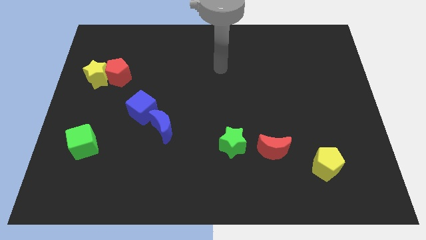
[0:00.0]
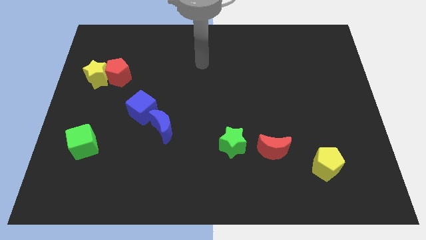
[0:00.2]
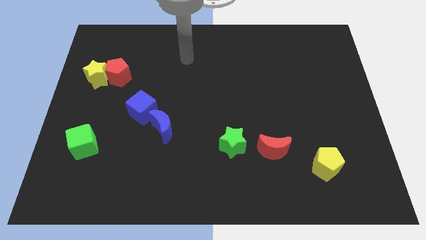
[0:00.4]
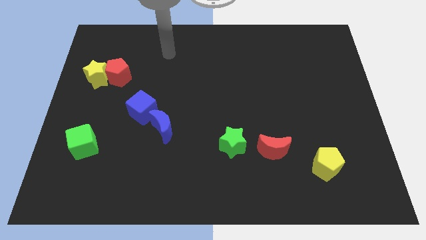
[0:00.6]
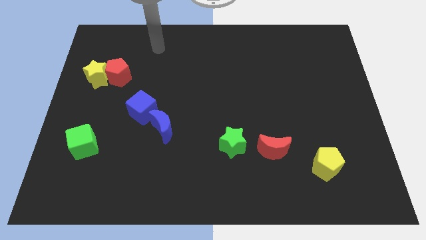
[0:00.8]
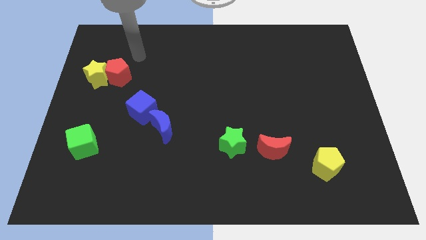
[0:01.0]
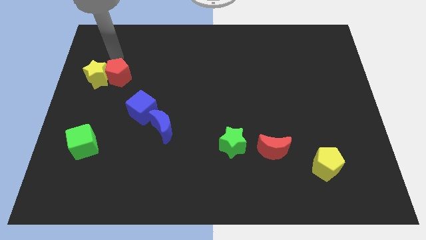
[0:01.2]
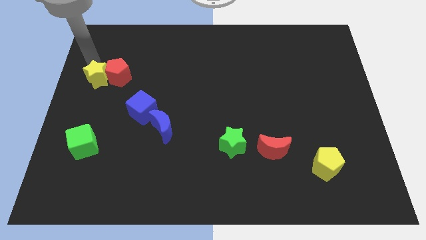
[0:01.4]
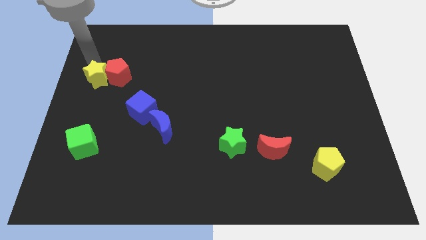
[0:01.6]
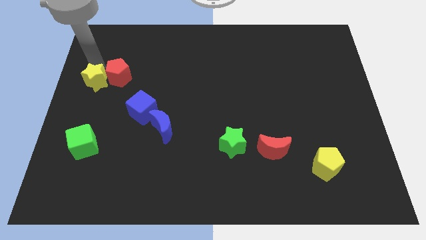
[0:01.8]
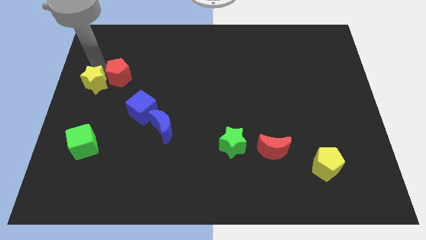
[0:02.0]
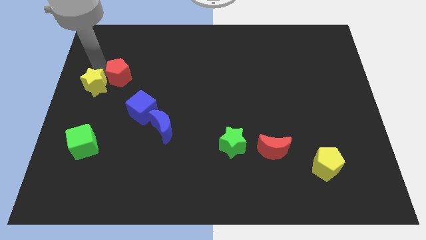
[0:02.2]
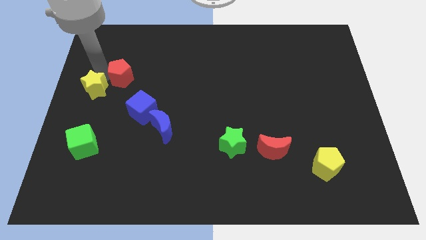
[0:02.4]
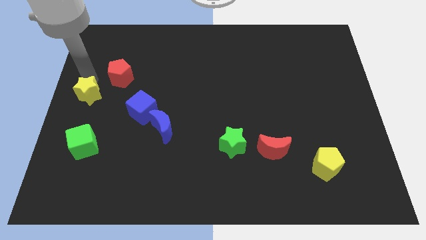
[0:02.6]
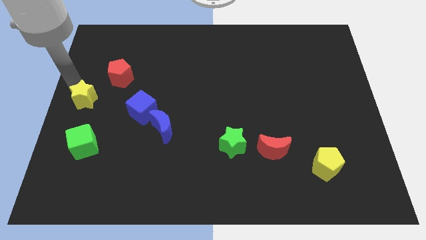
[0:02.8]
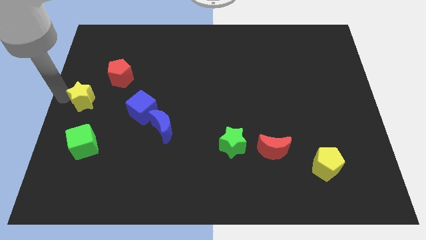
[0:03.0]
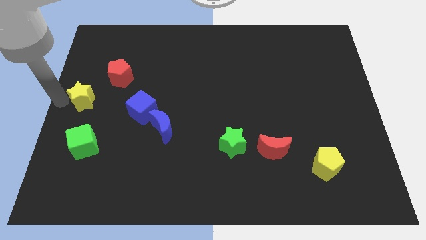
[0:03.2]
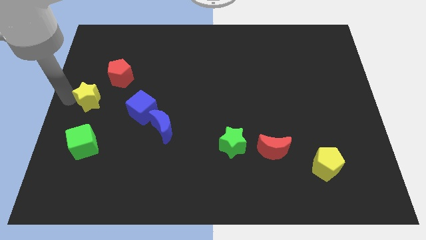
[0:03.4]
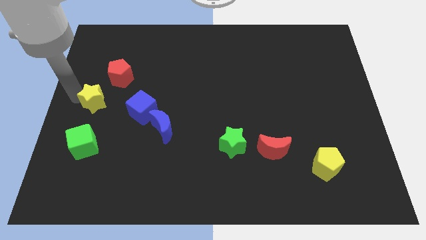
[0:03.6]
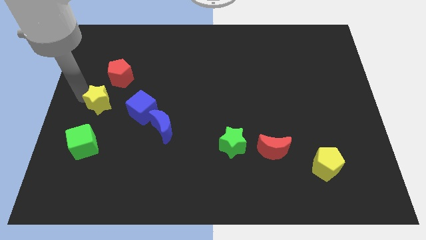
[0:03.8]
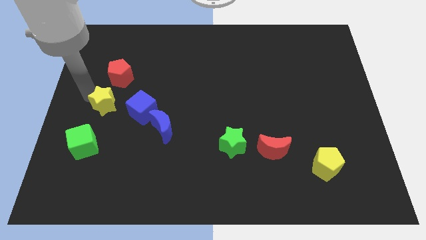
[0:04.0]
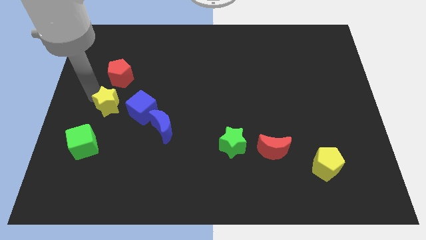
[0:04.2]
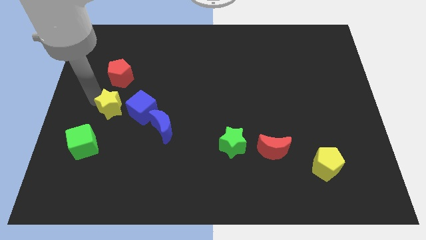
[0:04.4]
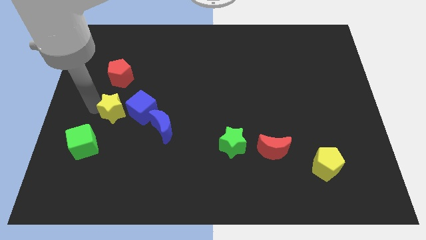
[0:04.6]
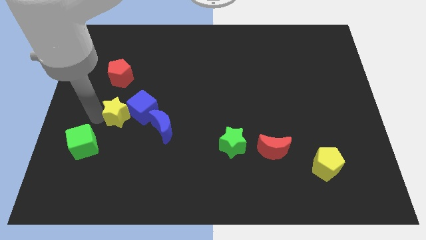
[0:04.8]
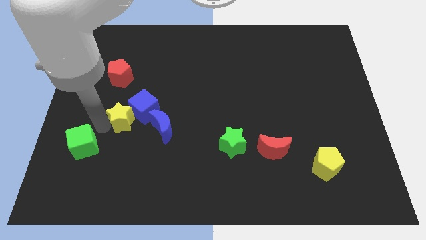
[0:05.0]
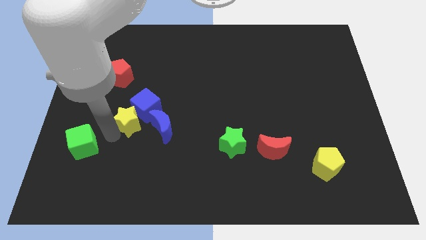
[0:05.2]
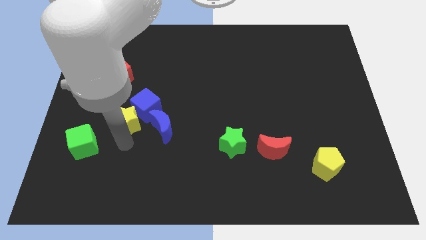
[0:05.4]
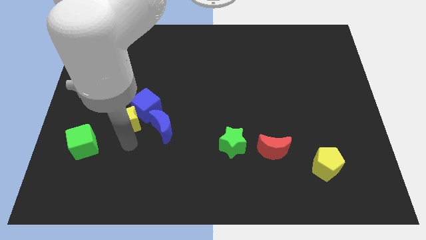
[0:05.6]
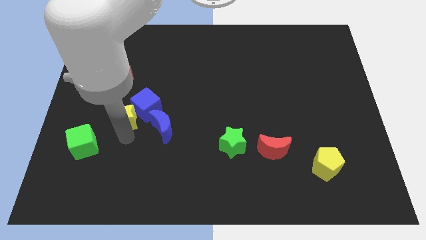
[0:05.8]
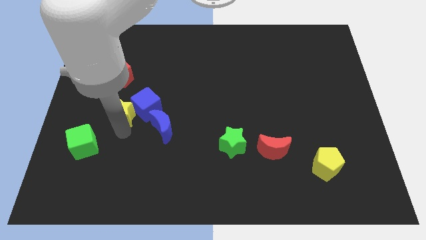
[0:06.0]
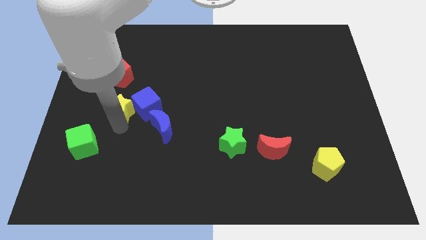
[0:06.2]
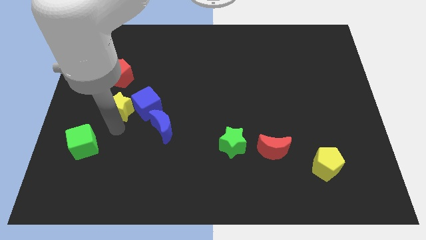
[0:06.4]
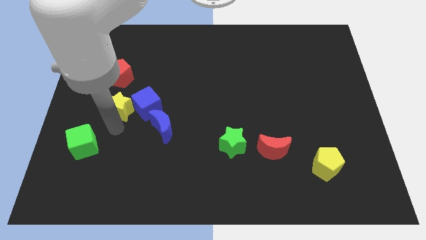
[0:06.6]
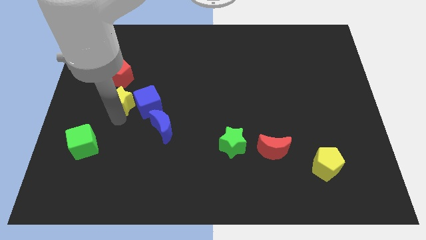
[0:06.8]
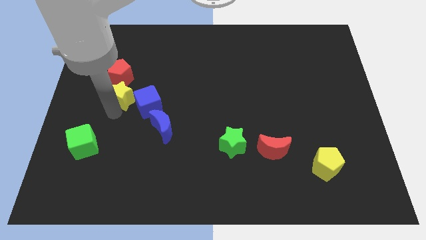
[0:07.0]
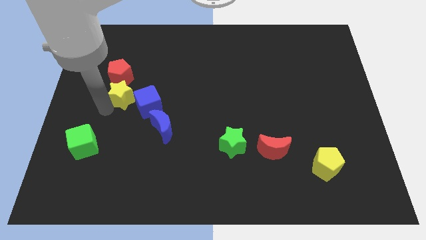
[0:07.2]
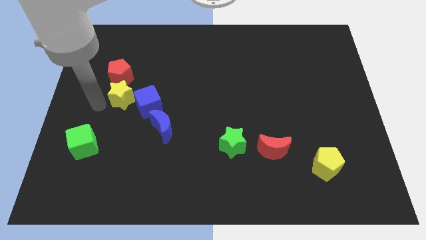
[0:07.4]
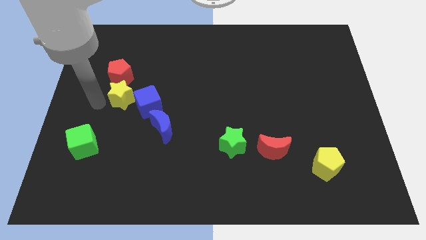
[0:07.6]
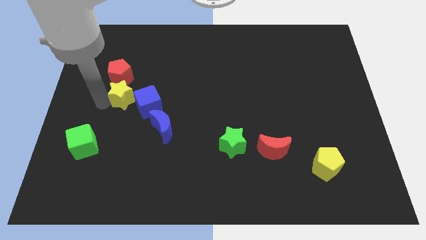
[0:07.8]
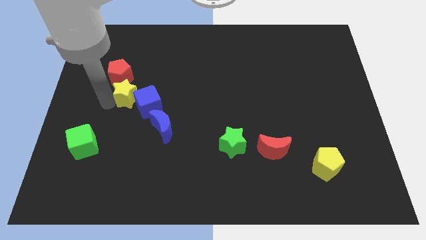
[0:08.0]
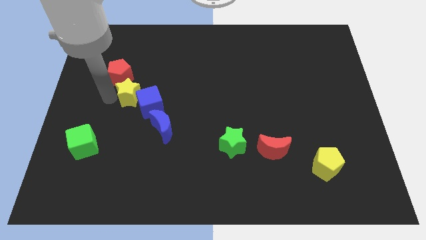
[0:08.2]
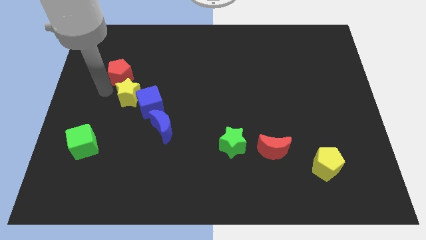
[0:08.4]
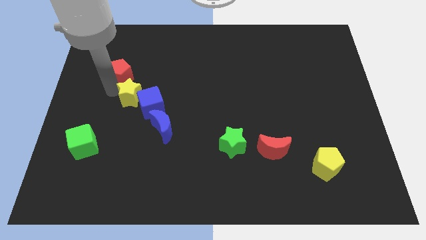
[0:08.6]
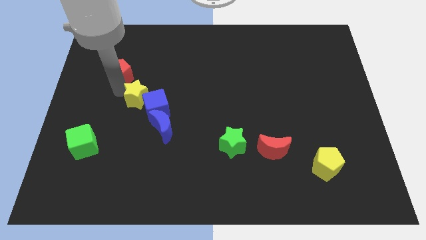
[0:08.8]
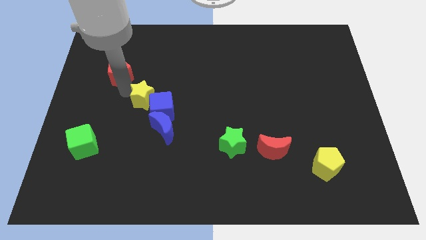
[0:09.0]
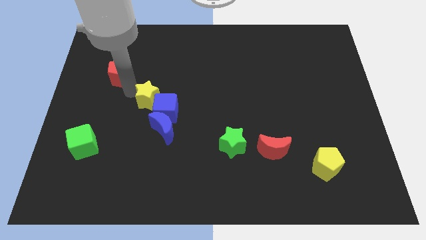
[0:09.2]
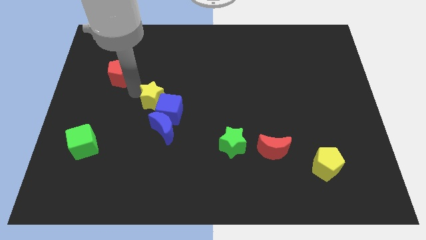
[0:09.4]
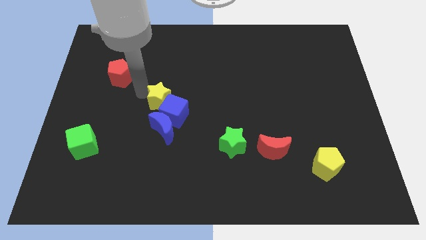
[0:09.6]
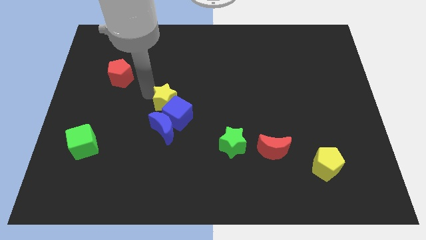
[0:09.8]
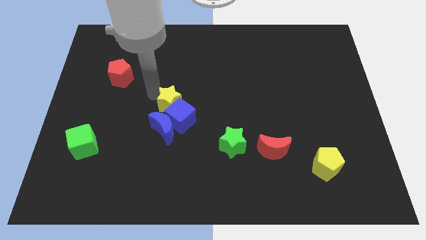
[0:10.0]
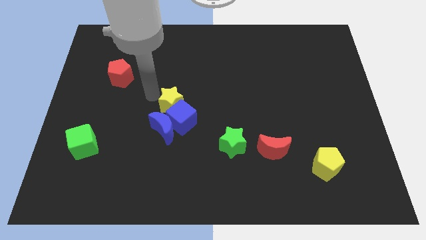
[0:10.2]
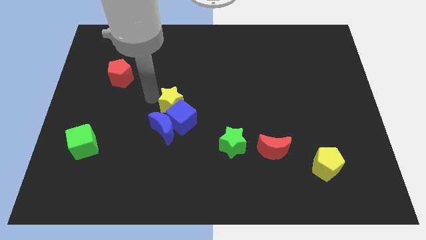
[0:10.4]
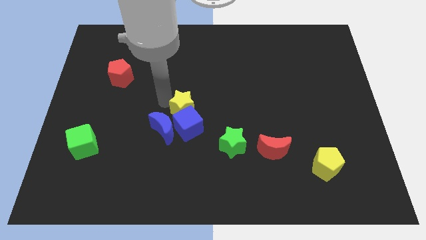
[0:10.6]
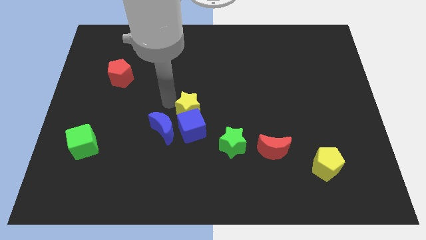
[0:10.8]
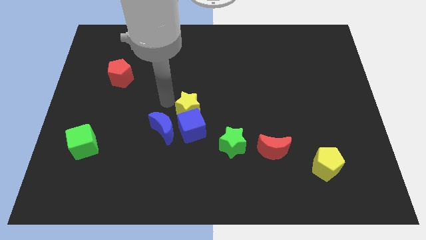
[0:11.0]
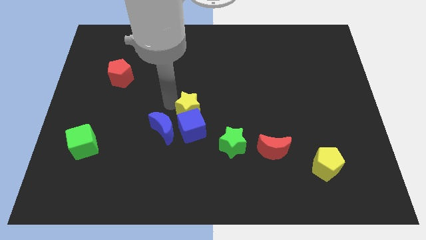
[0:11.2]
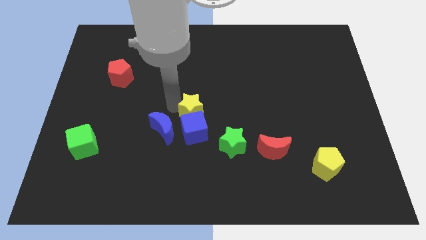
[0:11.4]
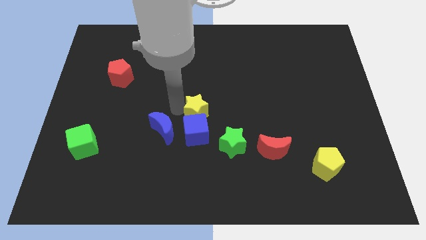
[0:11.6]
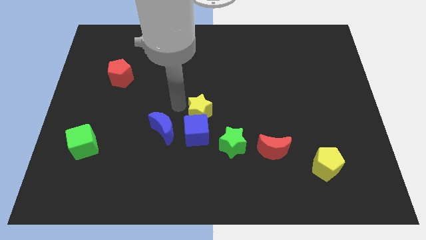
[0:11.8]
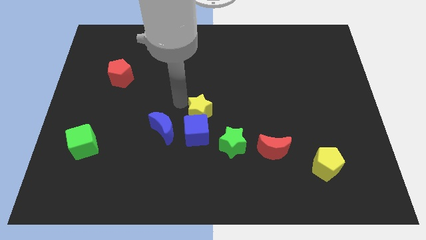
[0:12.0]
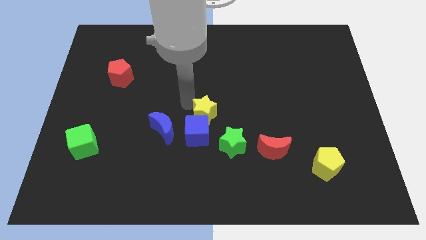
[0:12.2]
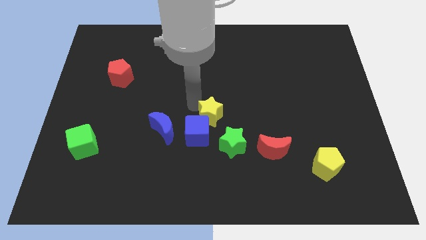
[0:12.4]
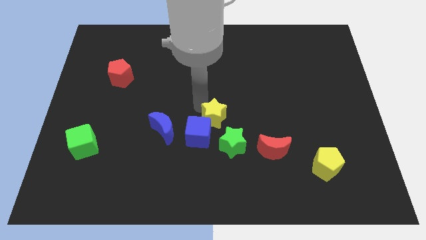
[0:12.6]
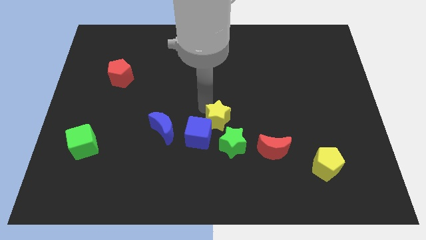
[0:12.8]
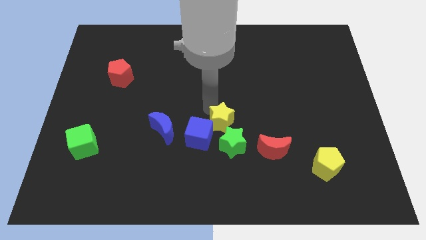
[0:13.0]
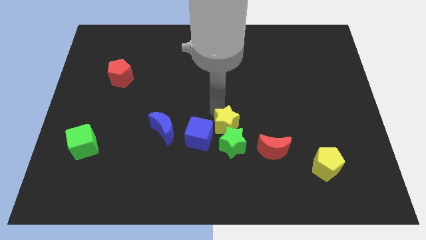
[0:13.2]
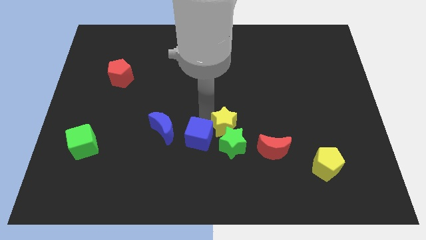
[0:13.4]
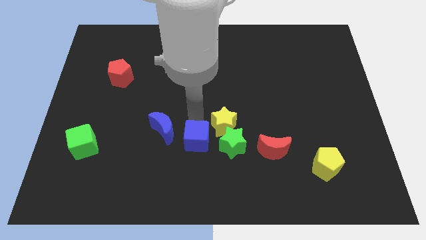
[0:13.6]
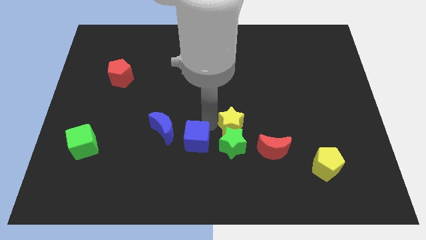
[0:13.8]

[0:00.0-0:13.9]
push the yellow star to the top right side of the green star
